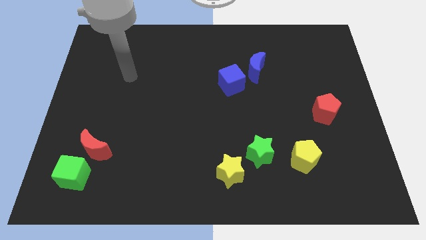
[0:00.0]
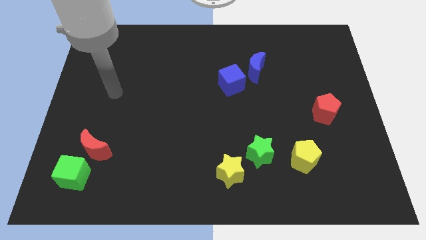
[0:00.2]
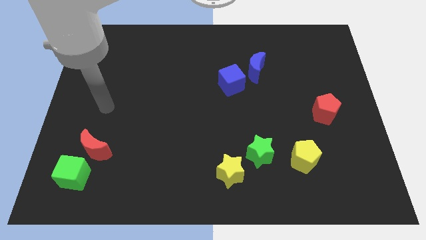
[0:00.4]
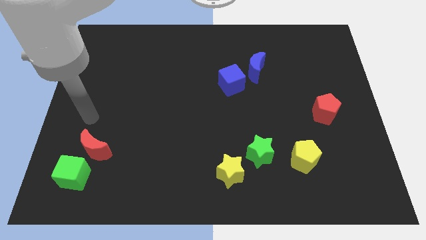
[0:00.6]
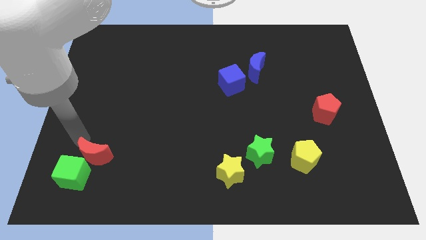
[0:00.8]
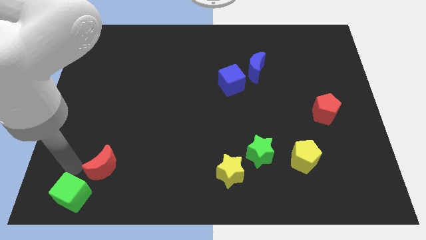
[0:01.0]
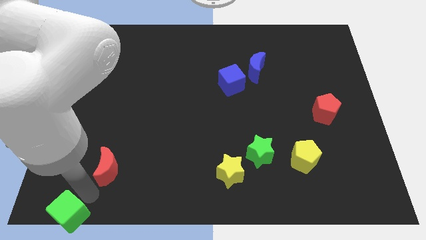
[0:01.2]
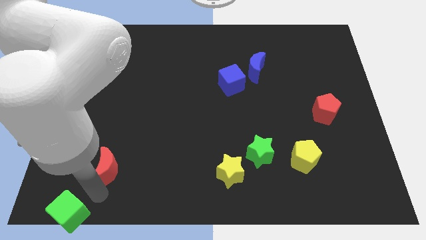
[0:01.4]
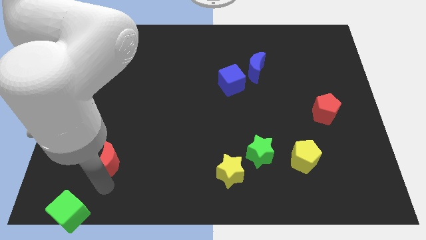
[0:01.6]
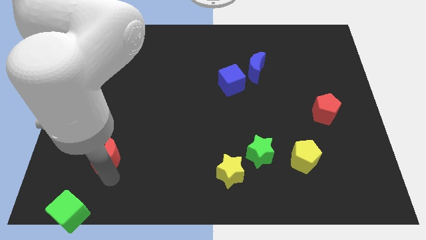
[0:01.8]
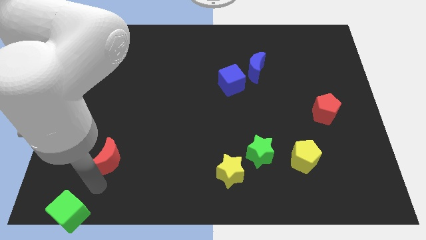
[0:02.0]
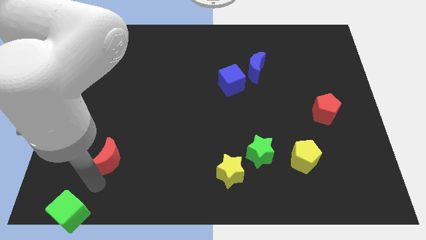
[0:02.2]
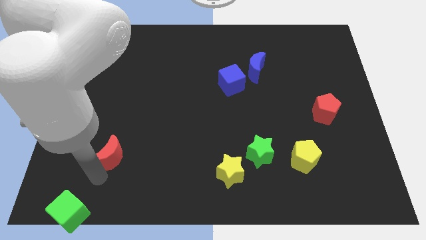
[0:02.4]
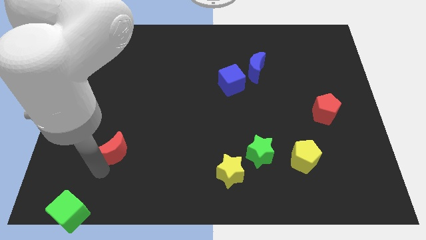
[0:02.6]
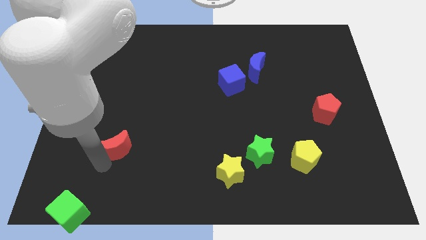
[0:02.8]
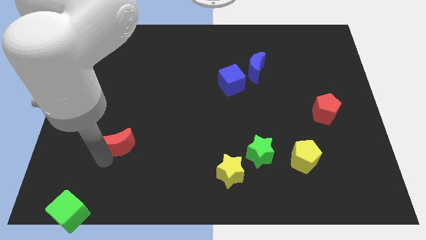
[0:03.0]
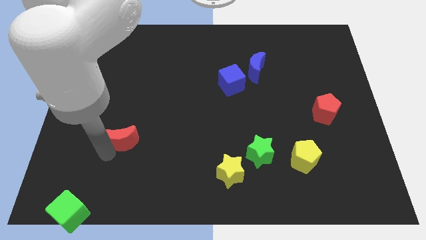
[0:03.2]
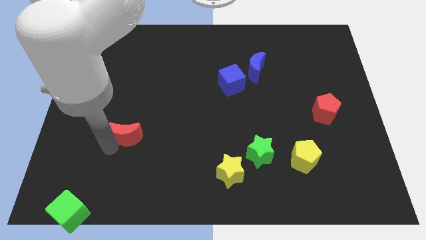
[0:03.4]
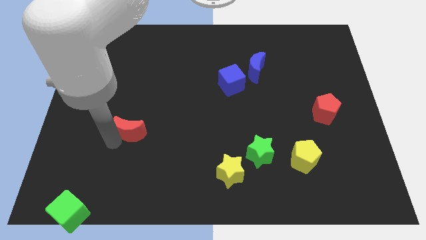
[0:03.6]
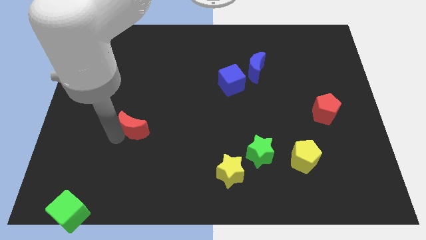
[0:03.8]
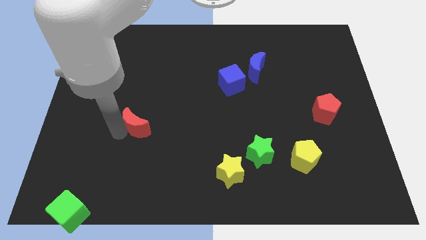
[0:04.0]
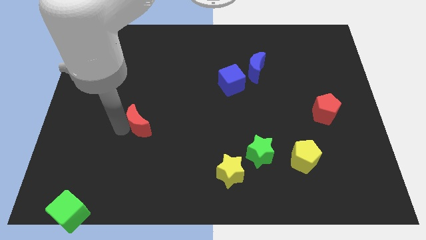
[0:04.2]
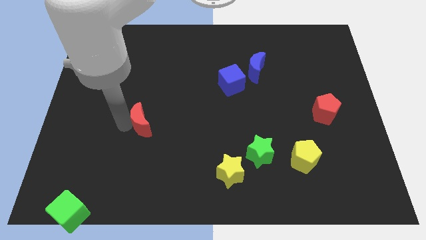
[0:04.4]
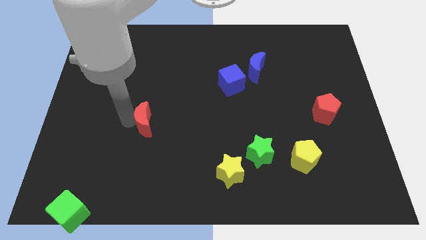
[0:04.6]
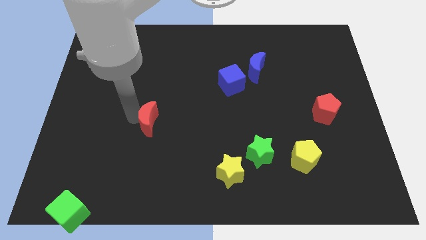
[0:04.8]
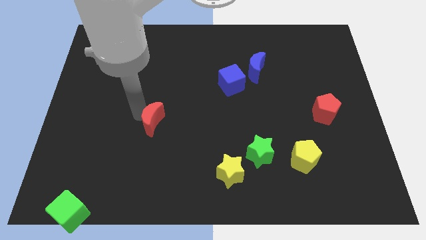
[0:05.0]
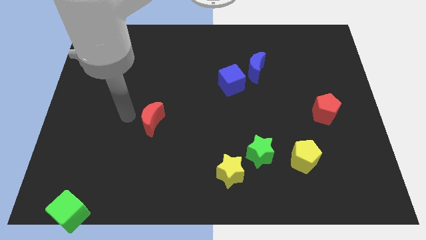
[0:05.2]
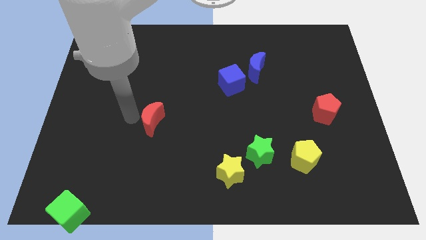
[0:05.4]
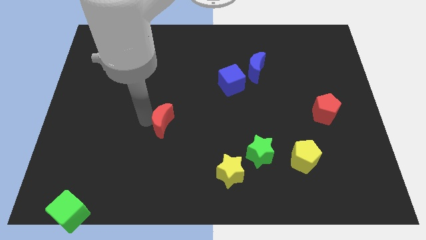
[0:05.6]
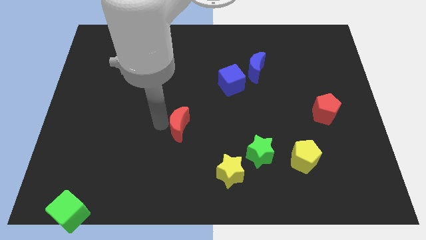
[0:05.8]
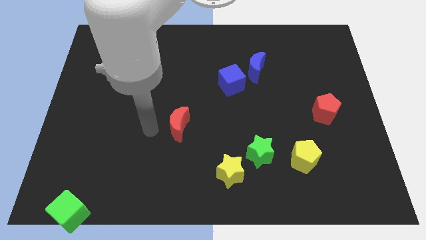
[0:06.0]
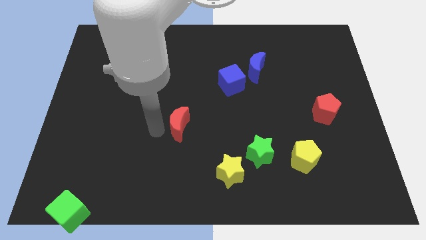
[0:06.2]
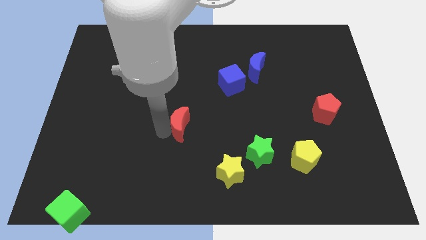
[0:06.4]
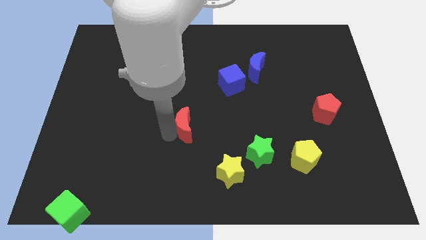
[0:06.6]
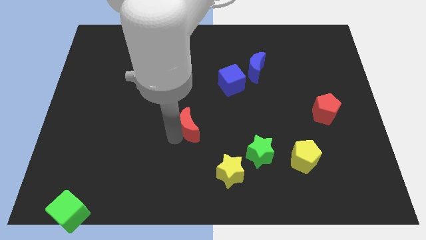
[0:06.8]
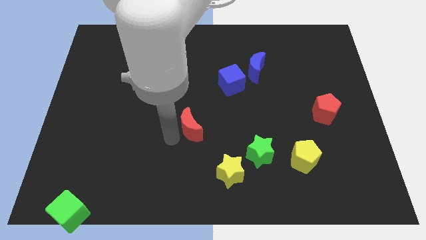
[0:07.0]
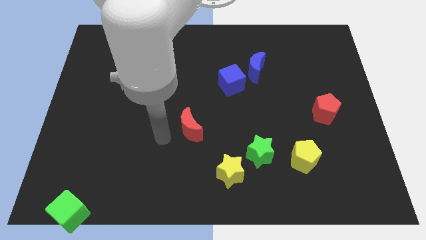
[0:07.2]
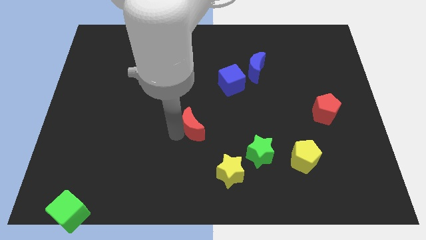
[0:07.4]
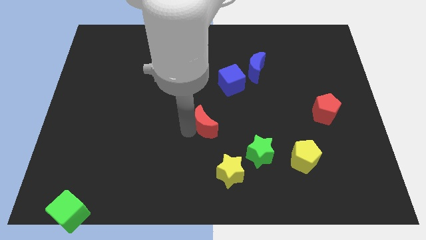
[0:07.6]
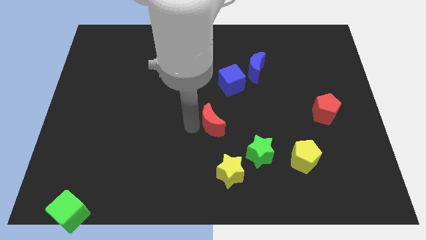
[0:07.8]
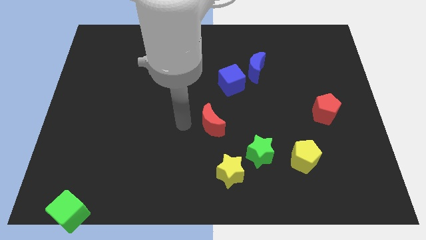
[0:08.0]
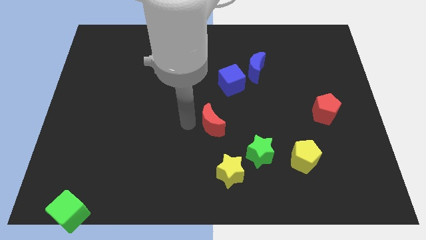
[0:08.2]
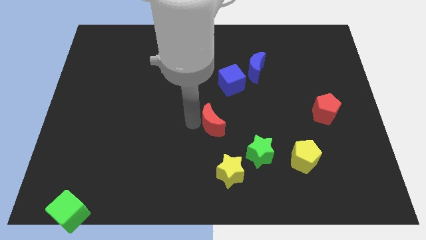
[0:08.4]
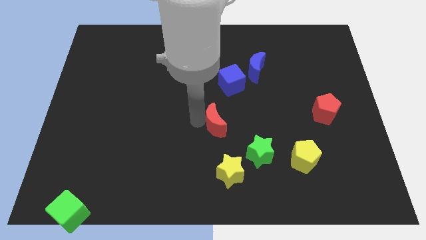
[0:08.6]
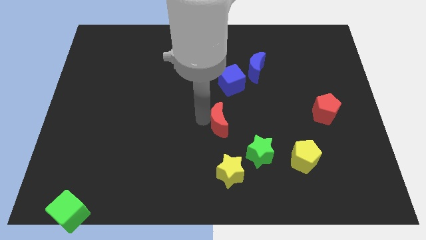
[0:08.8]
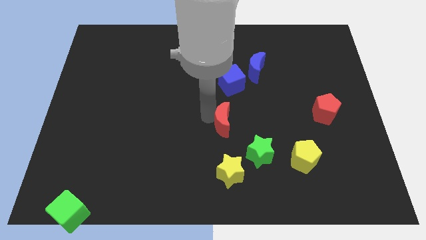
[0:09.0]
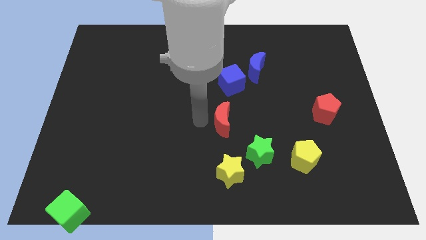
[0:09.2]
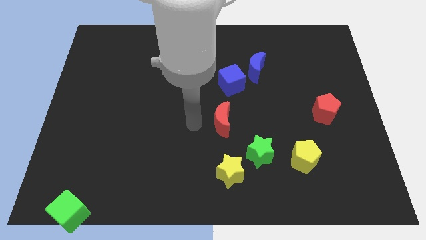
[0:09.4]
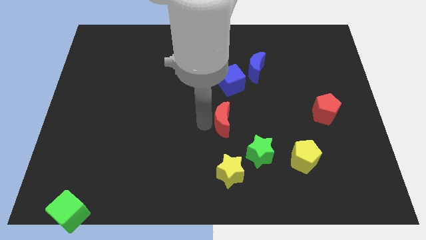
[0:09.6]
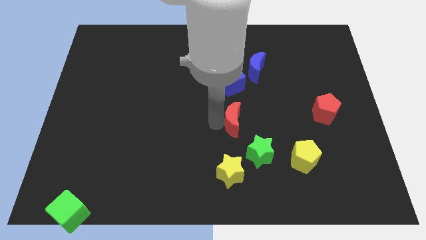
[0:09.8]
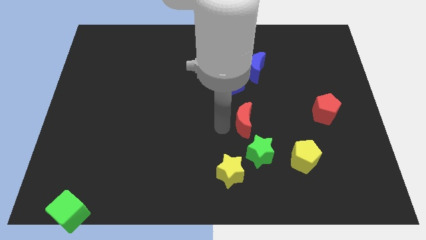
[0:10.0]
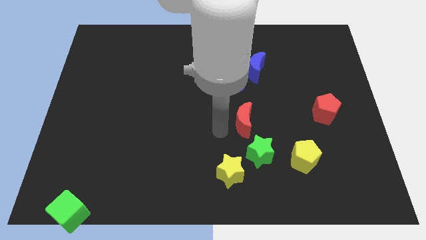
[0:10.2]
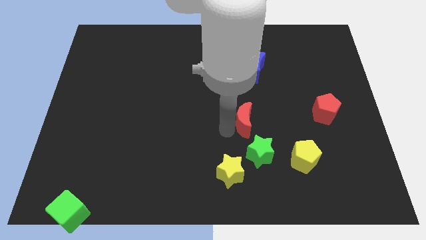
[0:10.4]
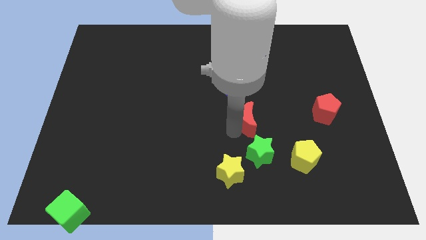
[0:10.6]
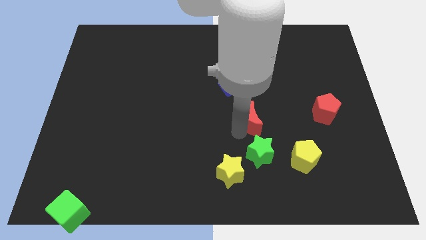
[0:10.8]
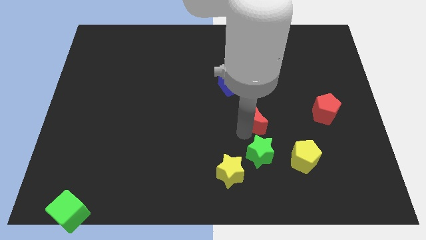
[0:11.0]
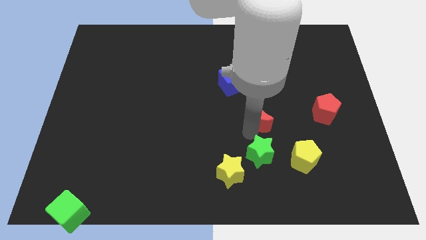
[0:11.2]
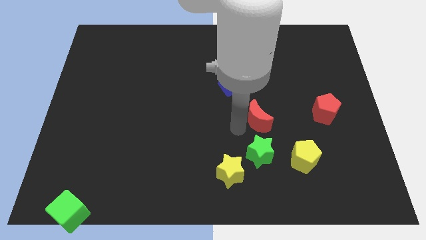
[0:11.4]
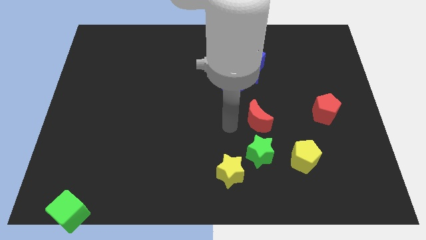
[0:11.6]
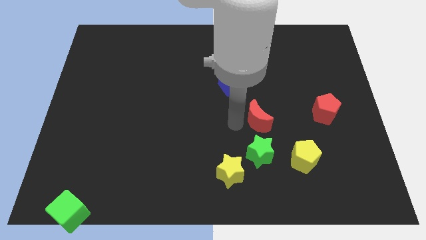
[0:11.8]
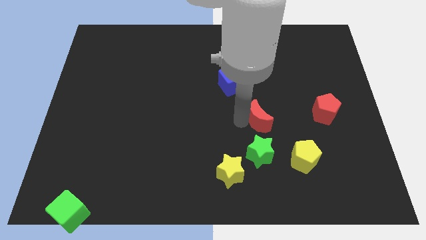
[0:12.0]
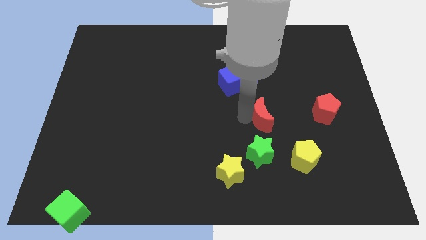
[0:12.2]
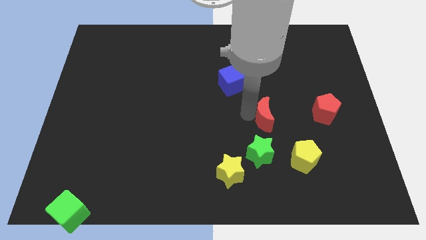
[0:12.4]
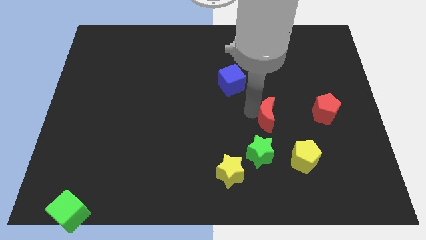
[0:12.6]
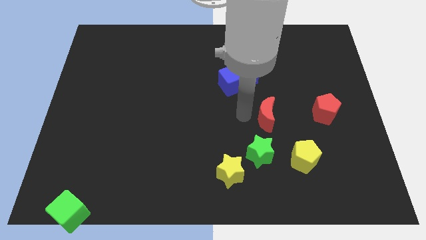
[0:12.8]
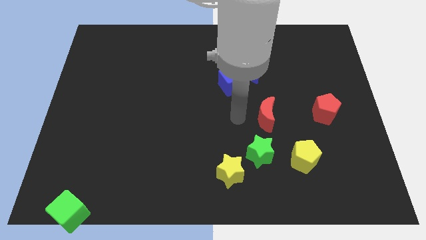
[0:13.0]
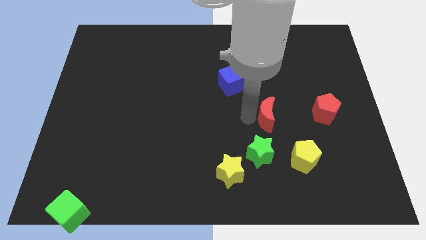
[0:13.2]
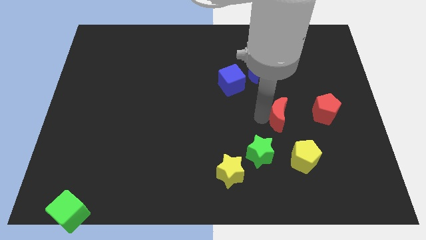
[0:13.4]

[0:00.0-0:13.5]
slide the red moon to the top side of the yellow pentagon
